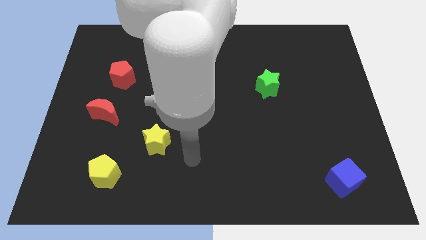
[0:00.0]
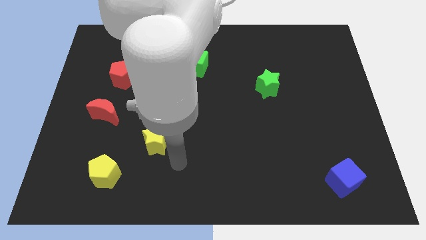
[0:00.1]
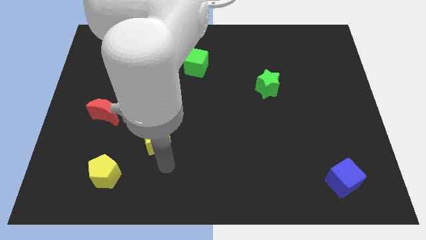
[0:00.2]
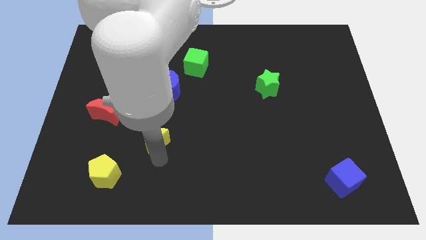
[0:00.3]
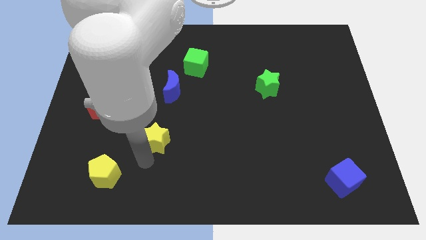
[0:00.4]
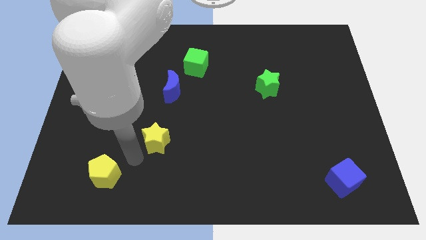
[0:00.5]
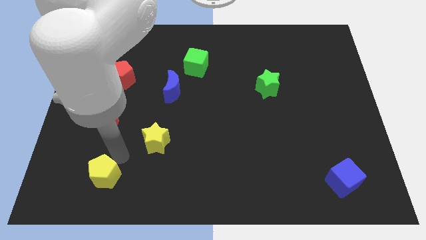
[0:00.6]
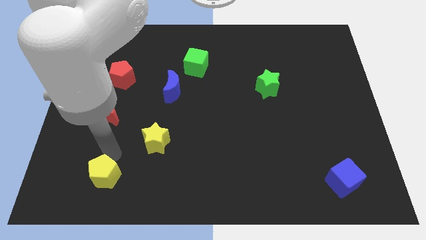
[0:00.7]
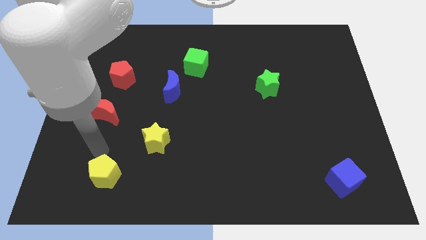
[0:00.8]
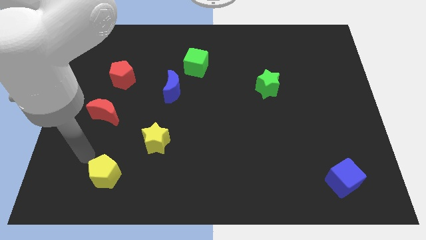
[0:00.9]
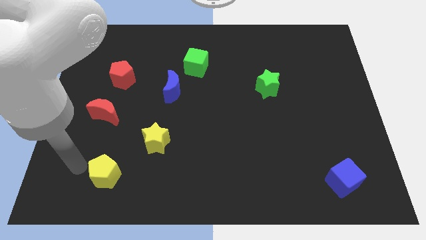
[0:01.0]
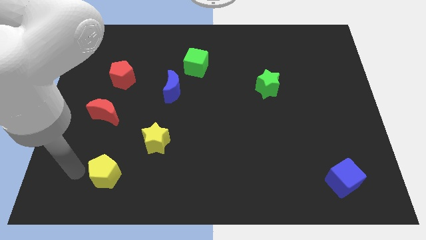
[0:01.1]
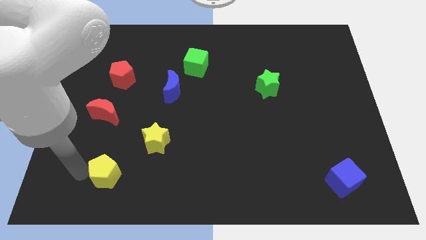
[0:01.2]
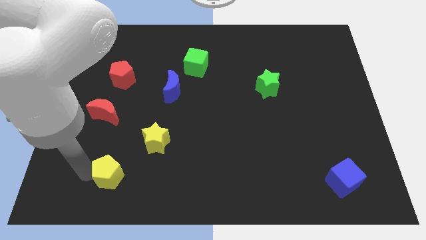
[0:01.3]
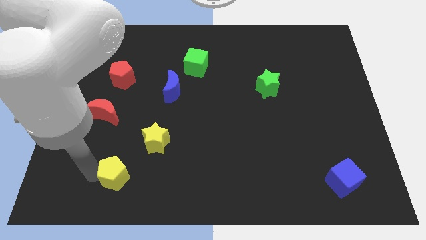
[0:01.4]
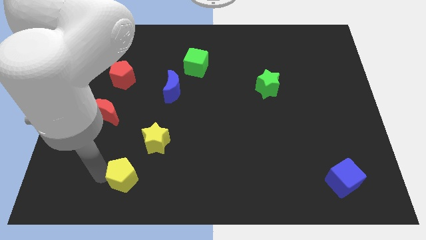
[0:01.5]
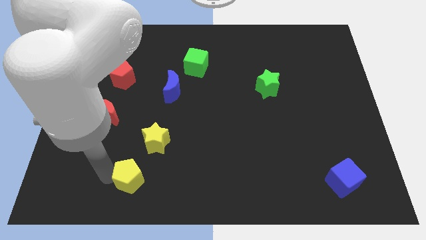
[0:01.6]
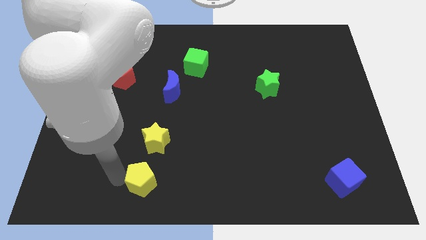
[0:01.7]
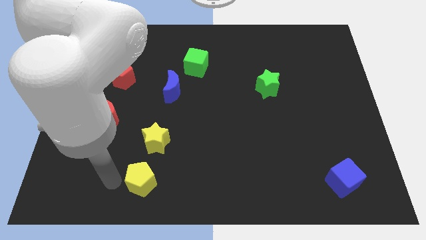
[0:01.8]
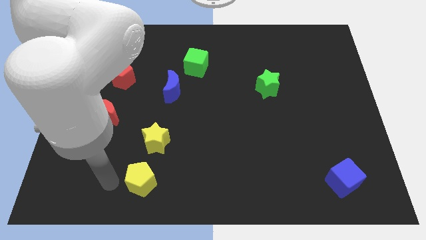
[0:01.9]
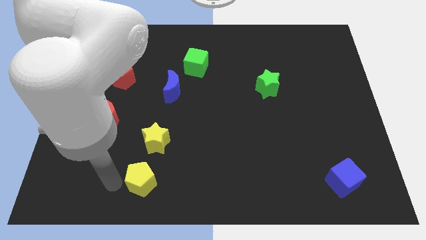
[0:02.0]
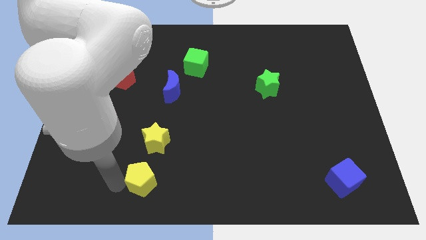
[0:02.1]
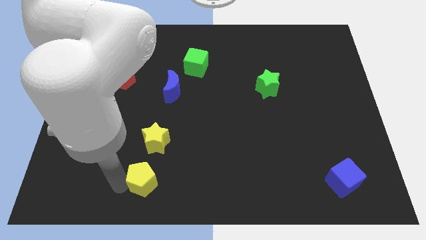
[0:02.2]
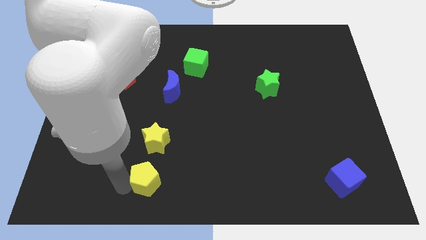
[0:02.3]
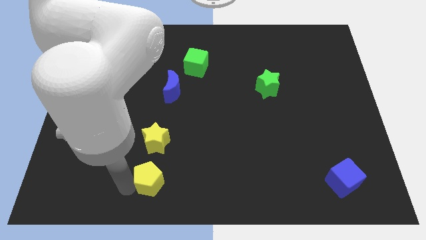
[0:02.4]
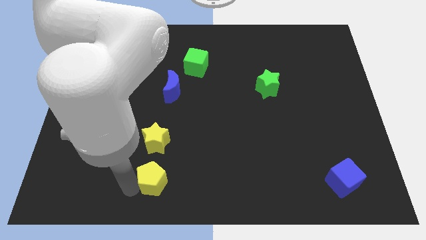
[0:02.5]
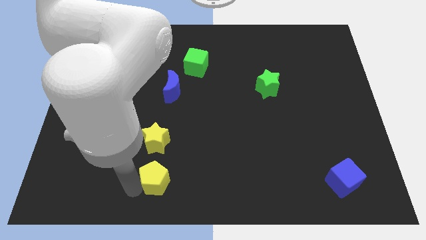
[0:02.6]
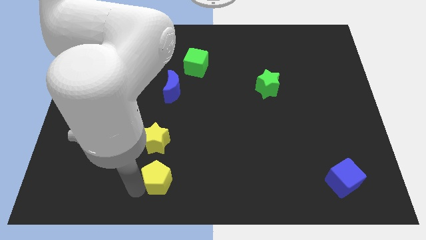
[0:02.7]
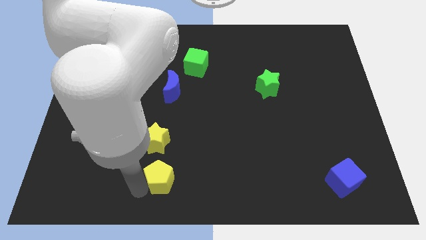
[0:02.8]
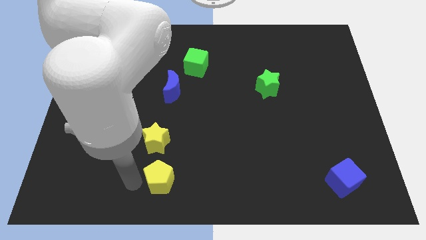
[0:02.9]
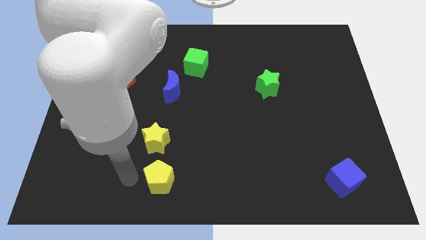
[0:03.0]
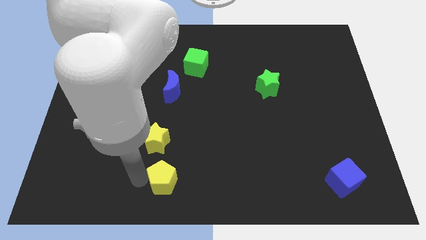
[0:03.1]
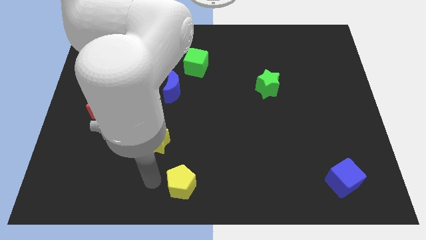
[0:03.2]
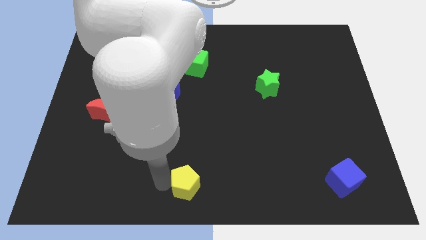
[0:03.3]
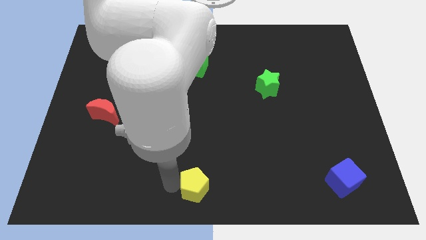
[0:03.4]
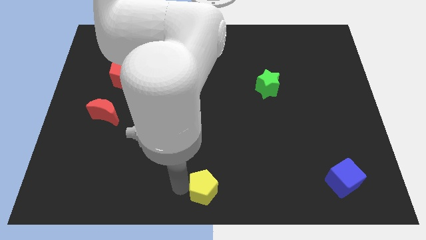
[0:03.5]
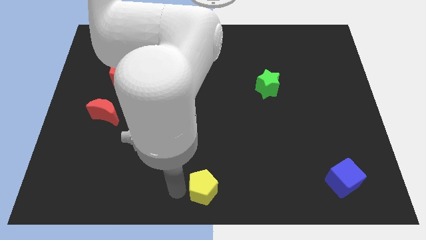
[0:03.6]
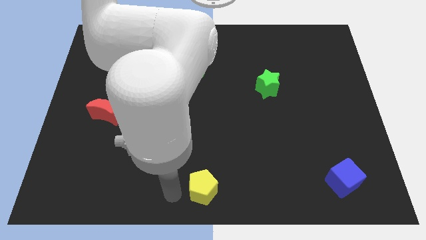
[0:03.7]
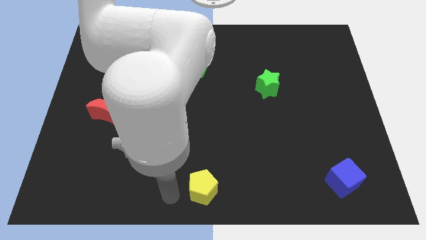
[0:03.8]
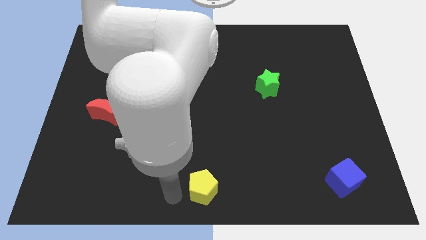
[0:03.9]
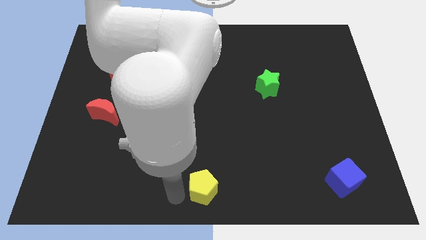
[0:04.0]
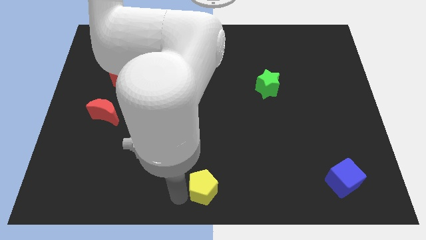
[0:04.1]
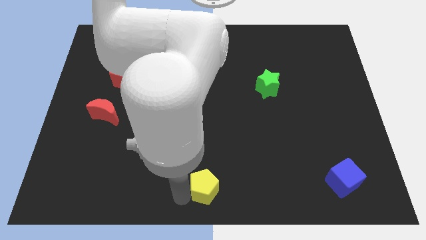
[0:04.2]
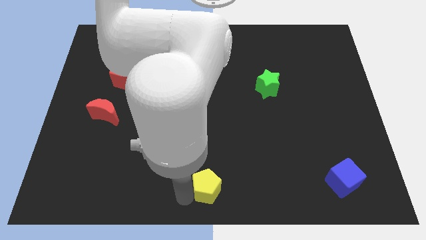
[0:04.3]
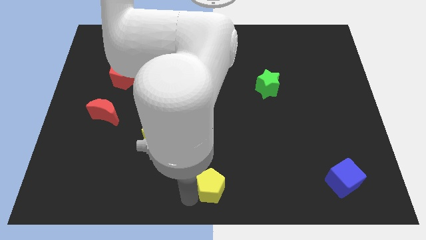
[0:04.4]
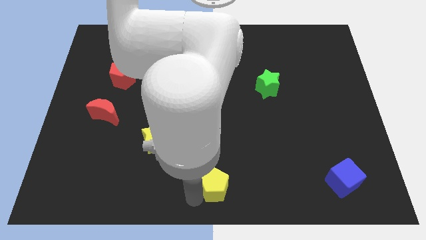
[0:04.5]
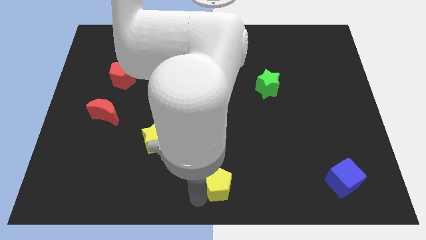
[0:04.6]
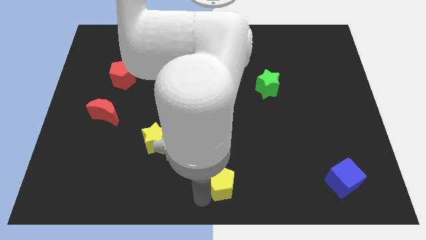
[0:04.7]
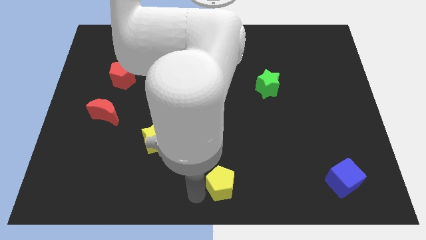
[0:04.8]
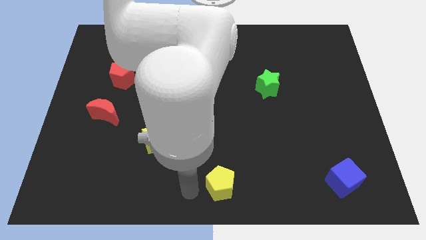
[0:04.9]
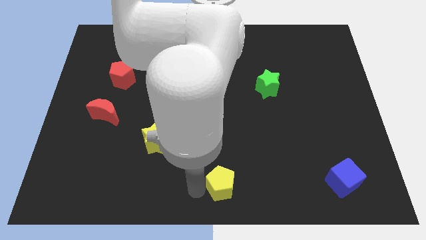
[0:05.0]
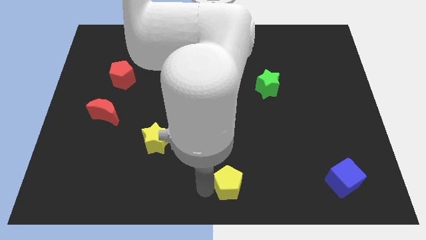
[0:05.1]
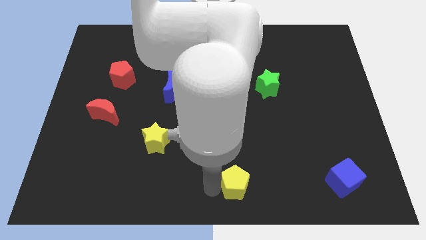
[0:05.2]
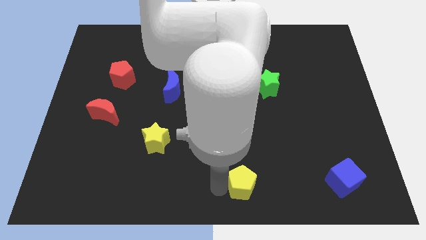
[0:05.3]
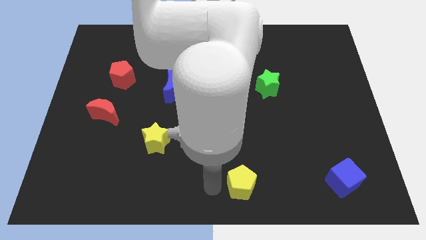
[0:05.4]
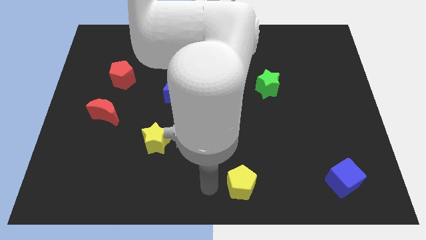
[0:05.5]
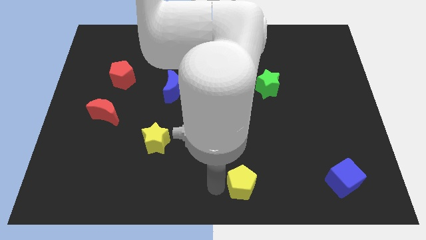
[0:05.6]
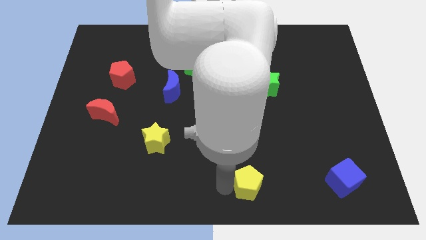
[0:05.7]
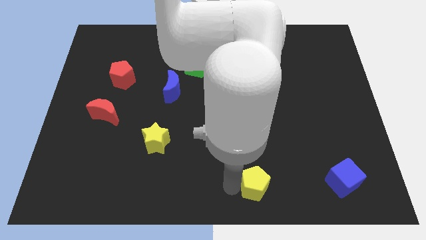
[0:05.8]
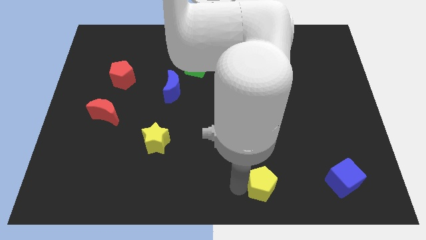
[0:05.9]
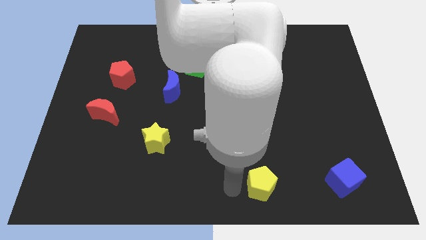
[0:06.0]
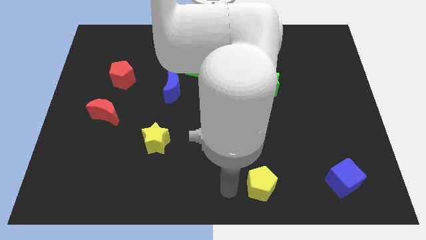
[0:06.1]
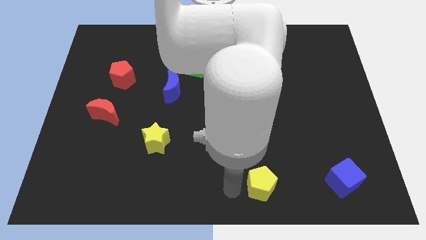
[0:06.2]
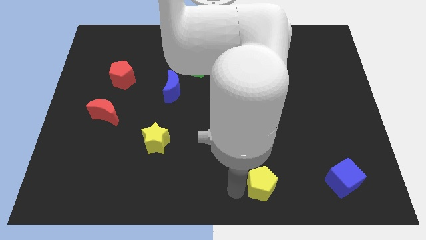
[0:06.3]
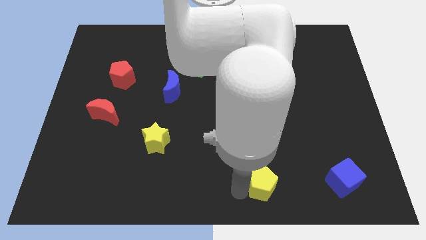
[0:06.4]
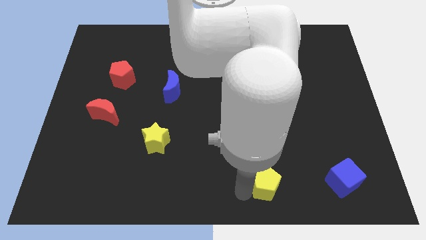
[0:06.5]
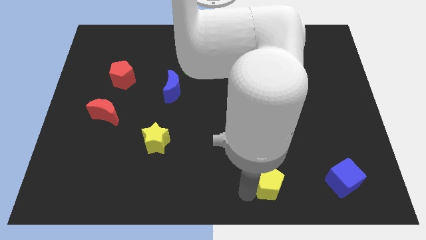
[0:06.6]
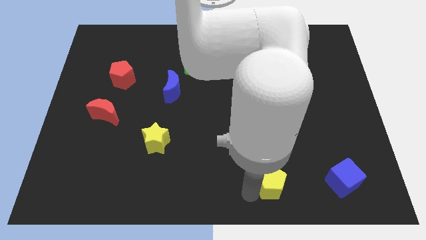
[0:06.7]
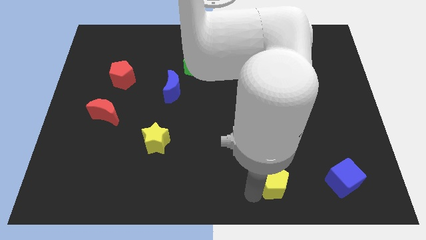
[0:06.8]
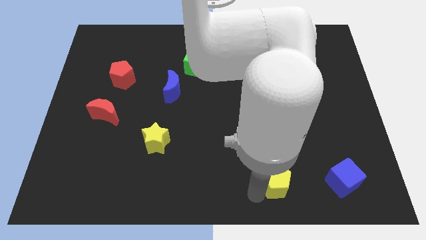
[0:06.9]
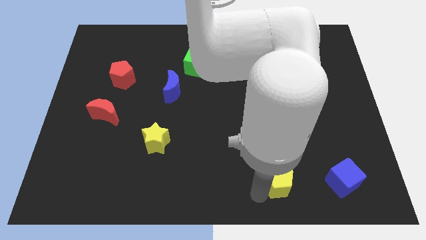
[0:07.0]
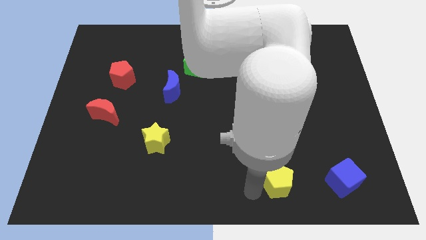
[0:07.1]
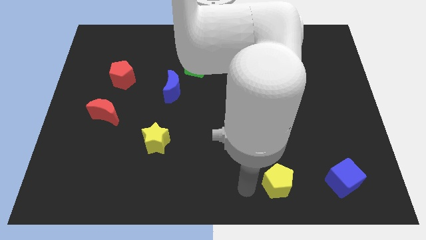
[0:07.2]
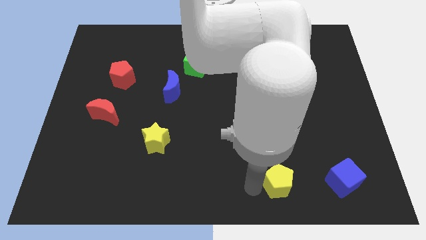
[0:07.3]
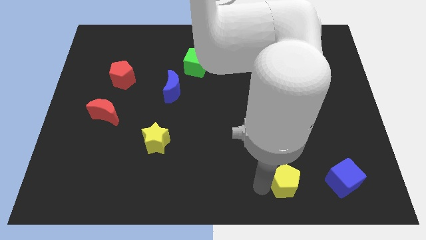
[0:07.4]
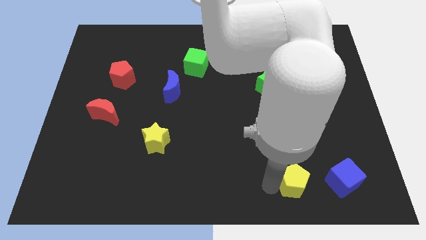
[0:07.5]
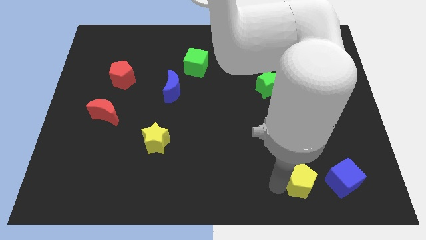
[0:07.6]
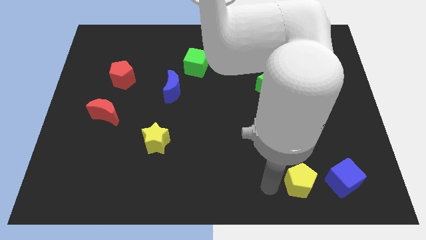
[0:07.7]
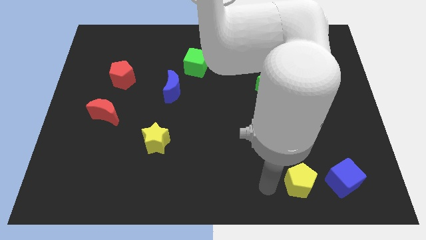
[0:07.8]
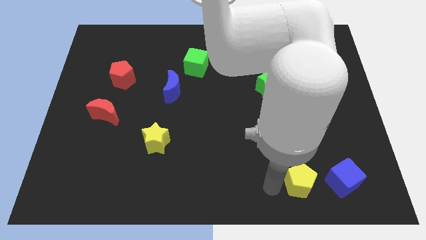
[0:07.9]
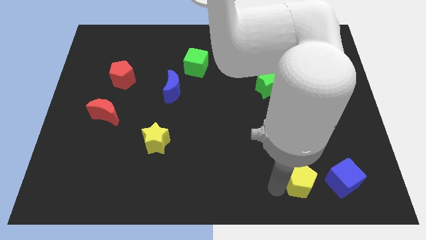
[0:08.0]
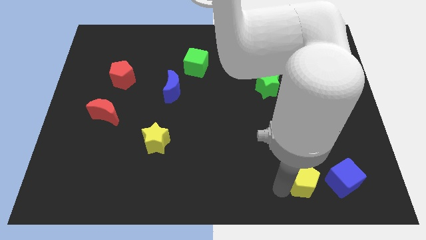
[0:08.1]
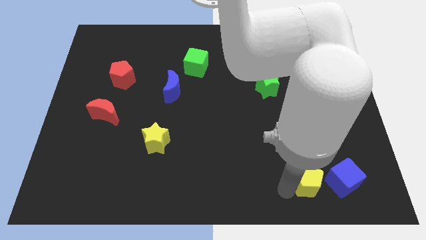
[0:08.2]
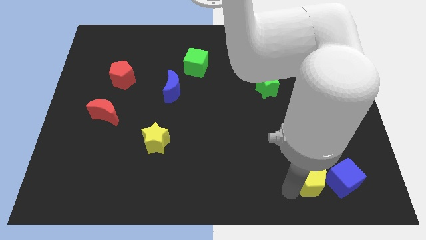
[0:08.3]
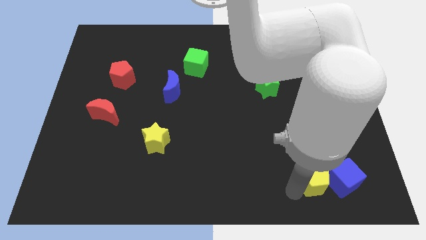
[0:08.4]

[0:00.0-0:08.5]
put the yellow pentagon towards the blue cube
